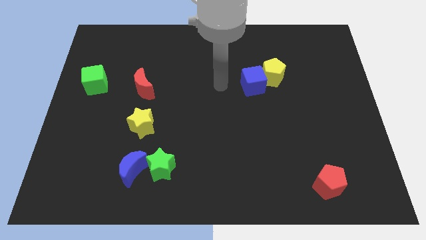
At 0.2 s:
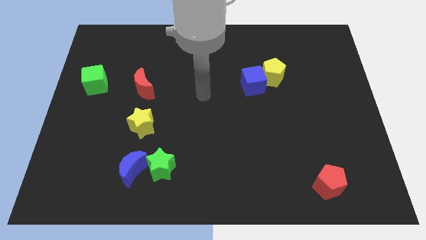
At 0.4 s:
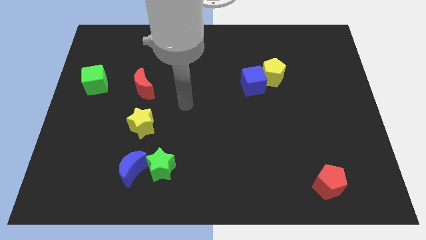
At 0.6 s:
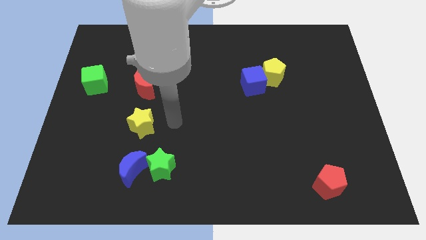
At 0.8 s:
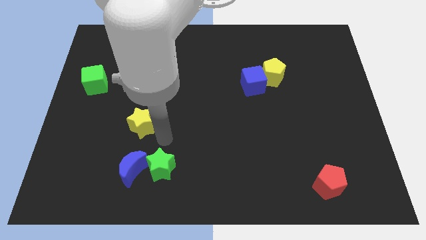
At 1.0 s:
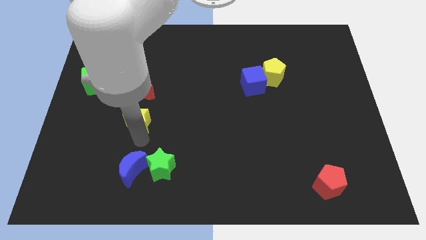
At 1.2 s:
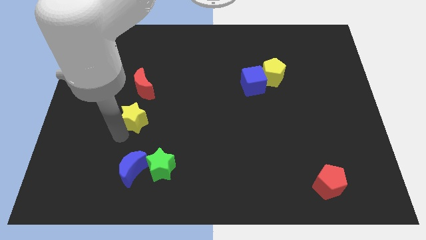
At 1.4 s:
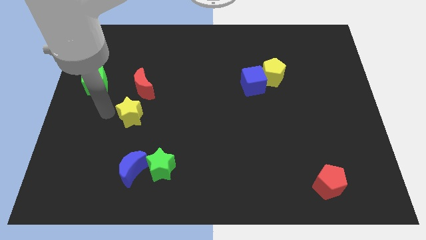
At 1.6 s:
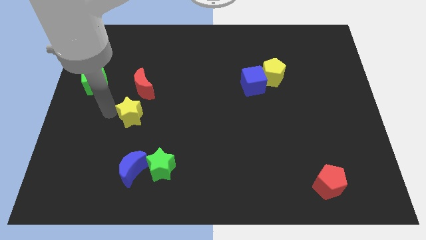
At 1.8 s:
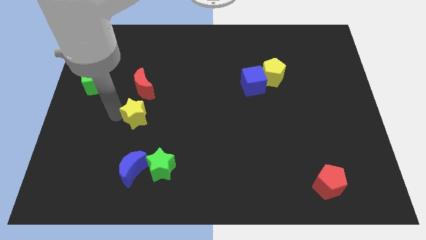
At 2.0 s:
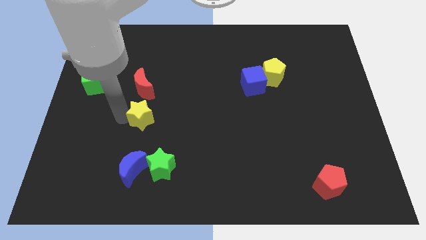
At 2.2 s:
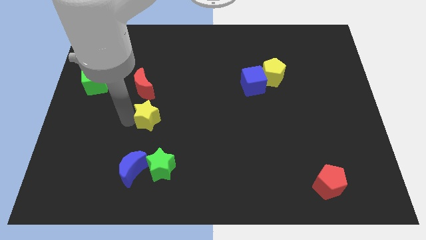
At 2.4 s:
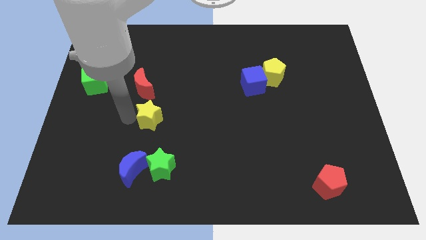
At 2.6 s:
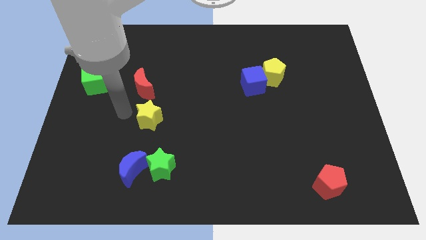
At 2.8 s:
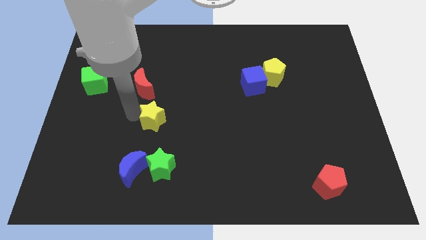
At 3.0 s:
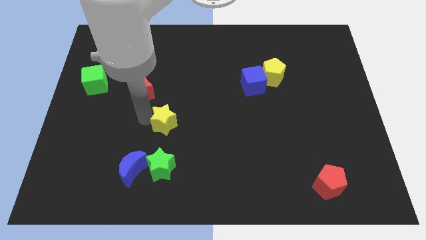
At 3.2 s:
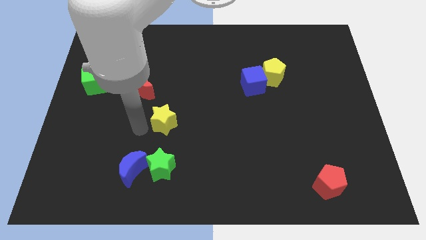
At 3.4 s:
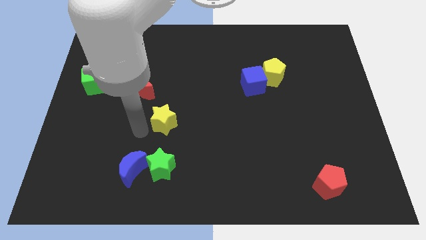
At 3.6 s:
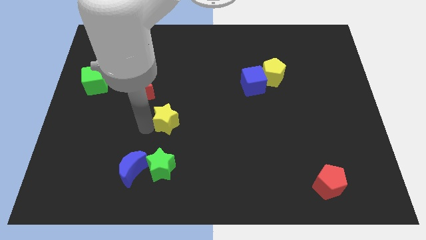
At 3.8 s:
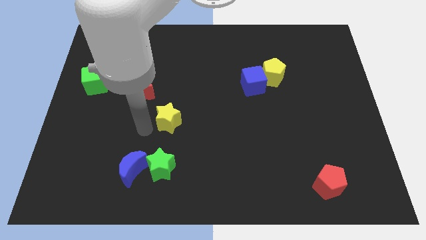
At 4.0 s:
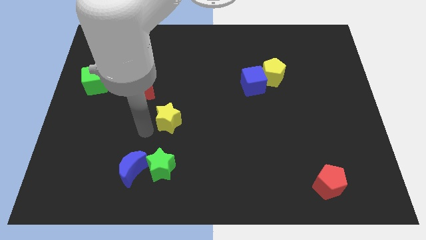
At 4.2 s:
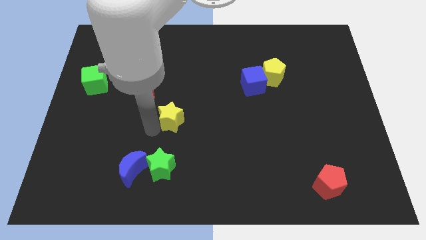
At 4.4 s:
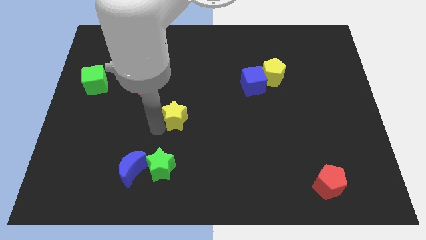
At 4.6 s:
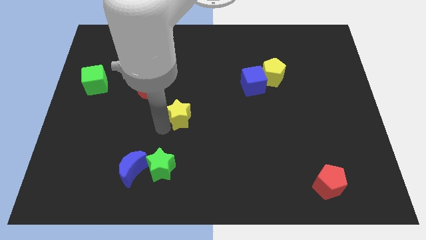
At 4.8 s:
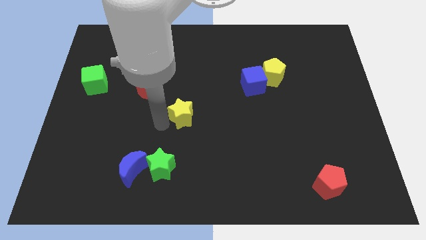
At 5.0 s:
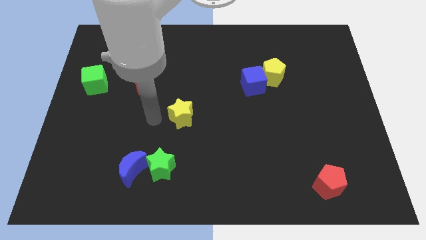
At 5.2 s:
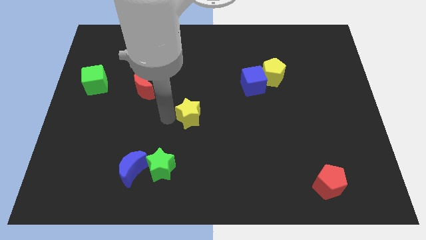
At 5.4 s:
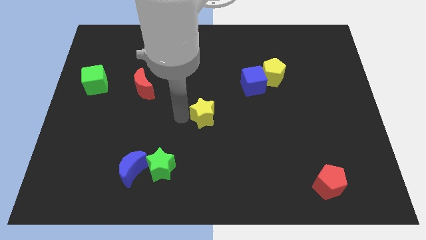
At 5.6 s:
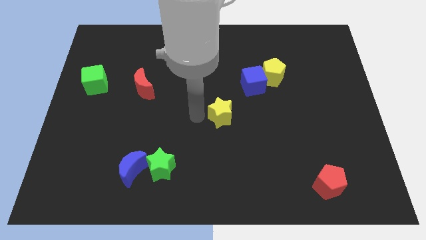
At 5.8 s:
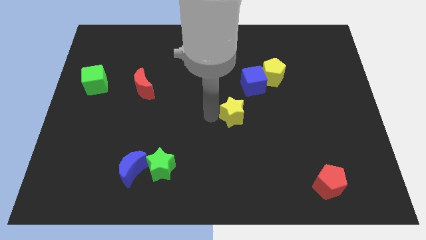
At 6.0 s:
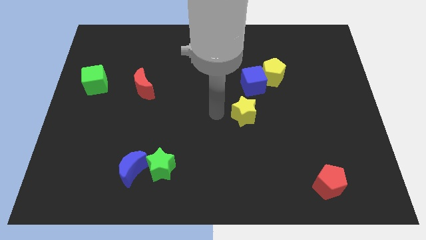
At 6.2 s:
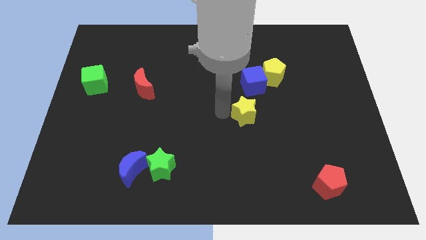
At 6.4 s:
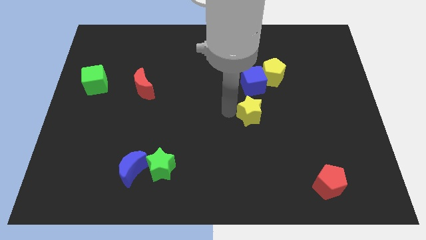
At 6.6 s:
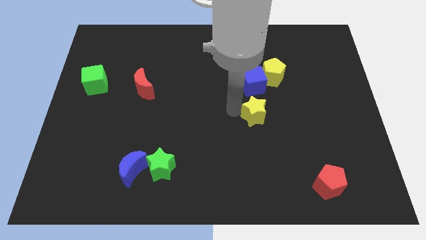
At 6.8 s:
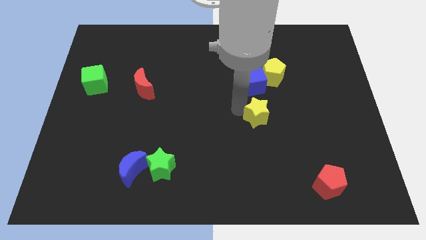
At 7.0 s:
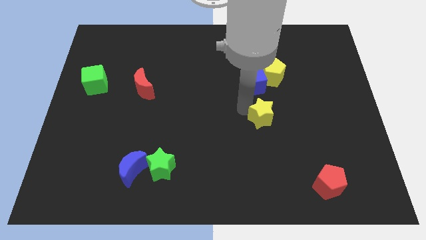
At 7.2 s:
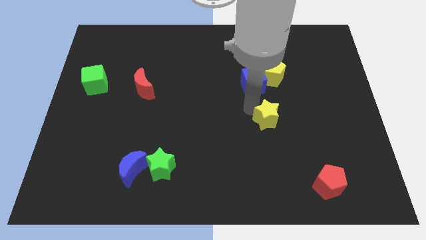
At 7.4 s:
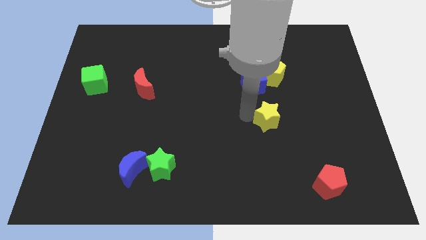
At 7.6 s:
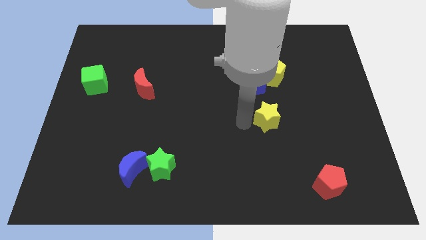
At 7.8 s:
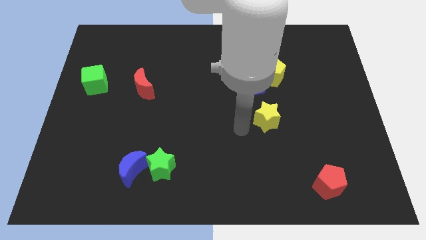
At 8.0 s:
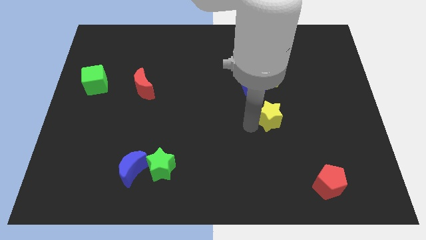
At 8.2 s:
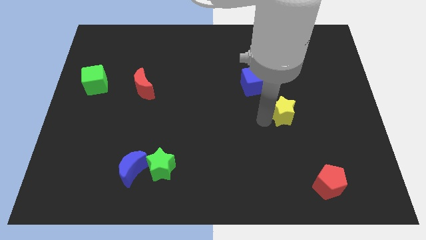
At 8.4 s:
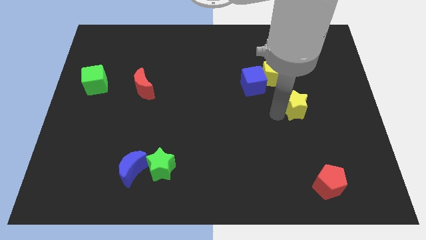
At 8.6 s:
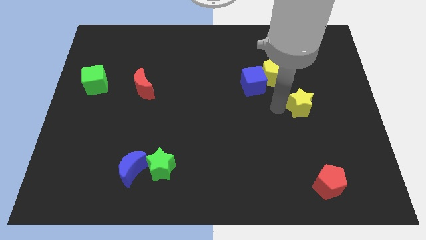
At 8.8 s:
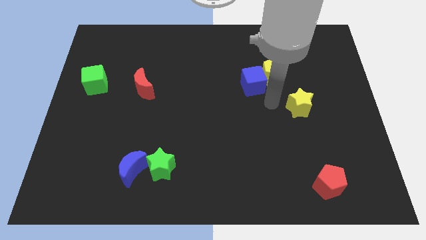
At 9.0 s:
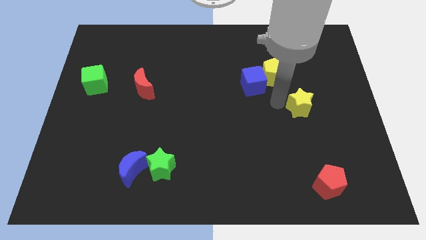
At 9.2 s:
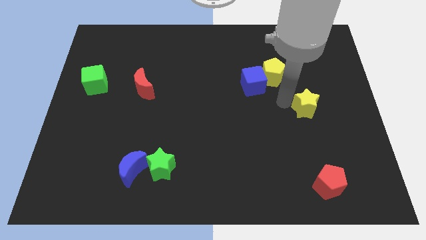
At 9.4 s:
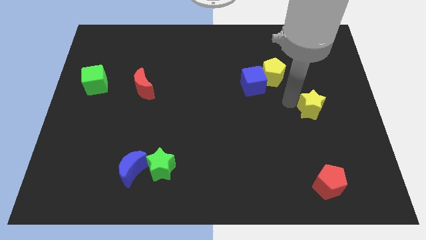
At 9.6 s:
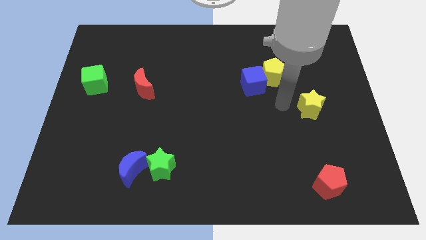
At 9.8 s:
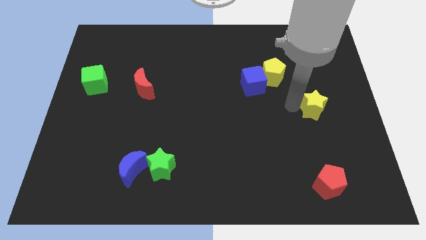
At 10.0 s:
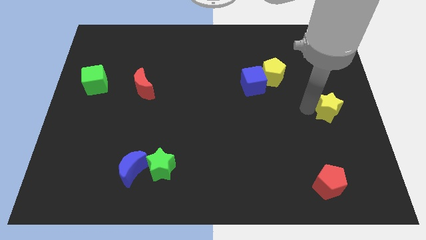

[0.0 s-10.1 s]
push the yellow star to the right side

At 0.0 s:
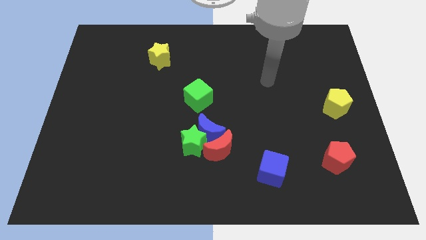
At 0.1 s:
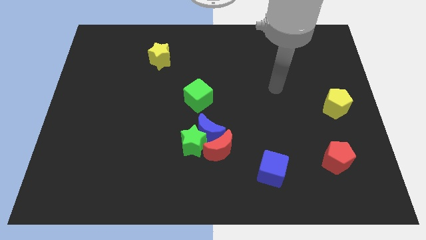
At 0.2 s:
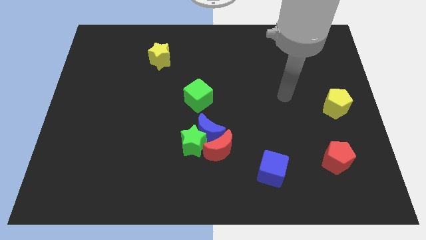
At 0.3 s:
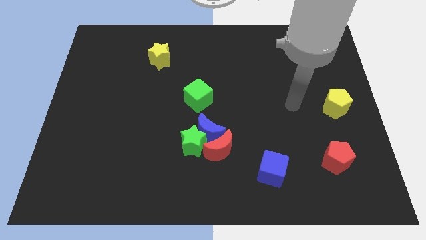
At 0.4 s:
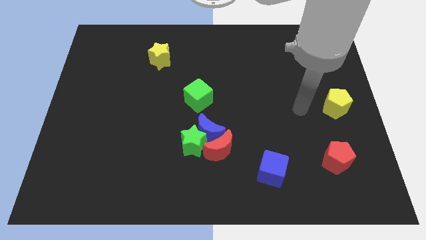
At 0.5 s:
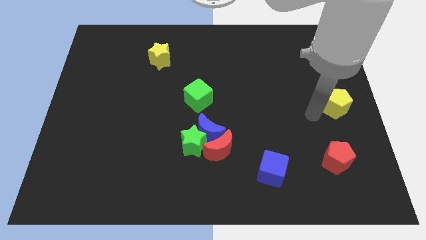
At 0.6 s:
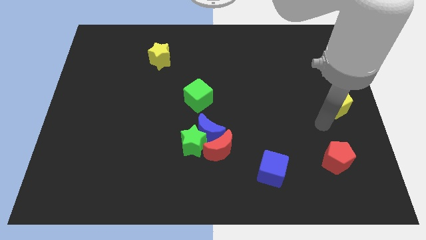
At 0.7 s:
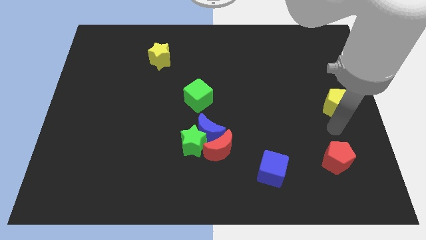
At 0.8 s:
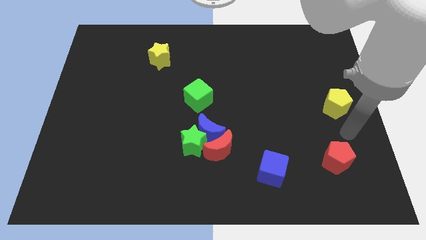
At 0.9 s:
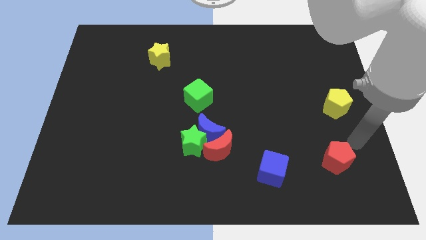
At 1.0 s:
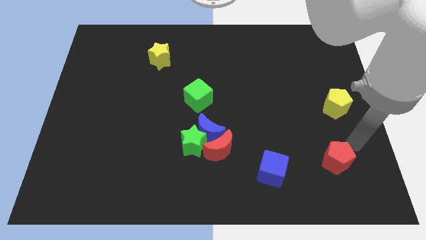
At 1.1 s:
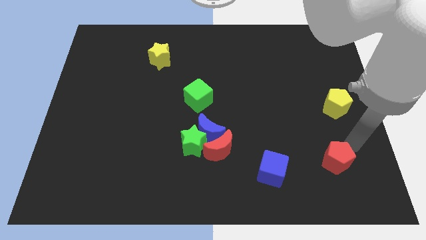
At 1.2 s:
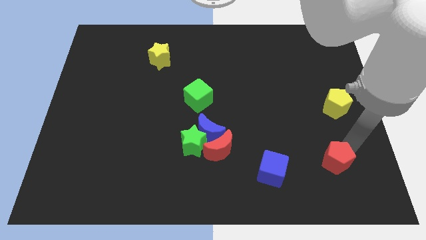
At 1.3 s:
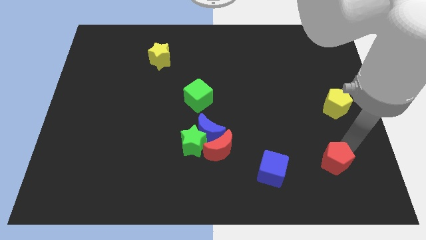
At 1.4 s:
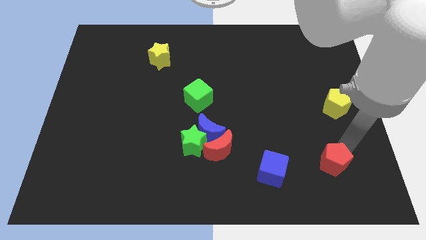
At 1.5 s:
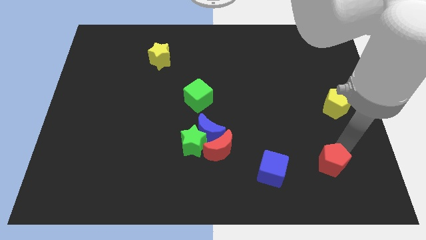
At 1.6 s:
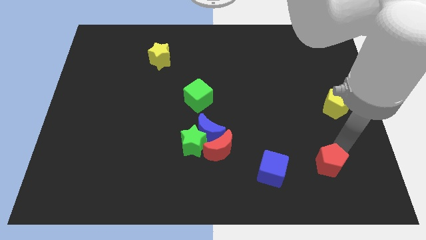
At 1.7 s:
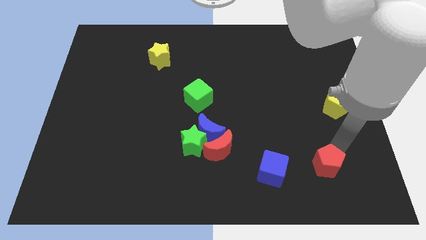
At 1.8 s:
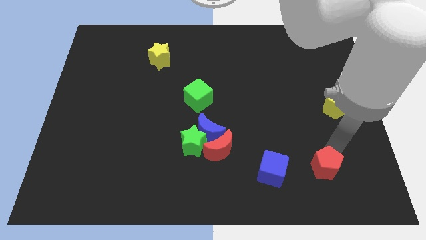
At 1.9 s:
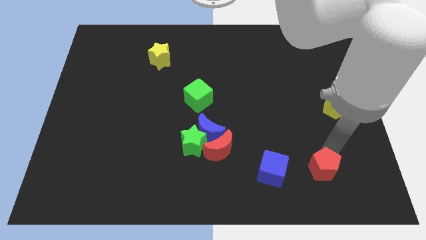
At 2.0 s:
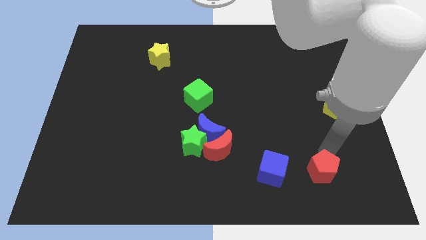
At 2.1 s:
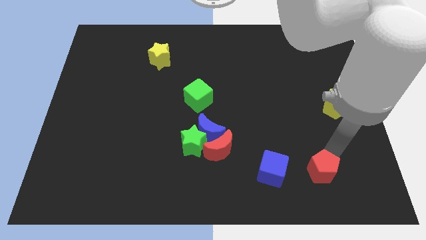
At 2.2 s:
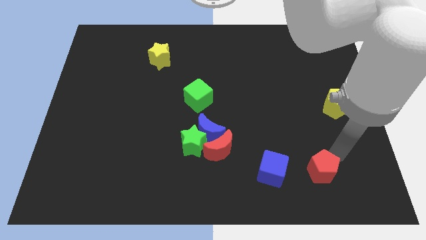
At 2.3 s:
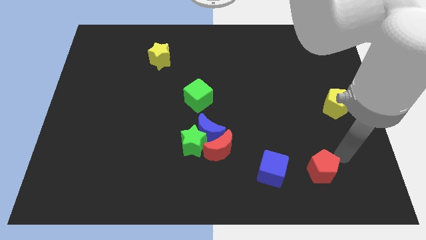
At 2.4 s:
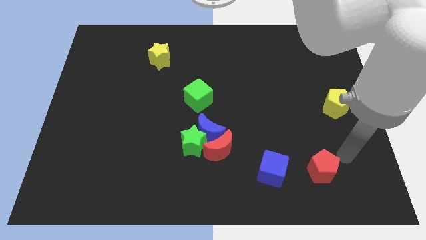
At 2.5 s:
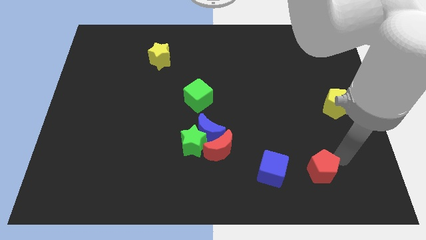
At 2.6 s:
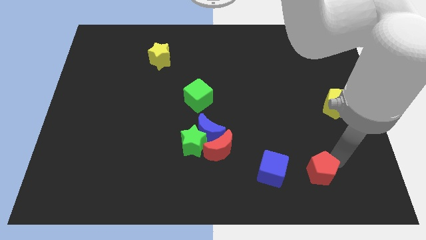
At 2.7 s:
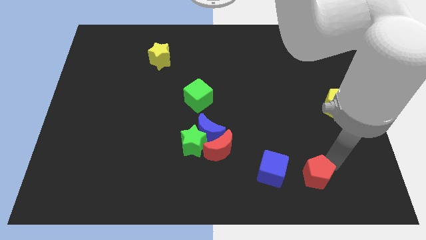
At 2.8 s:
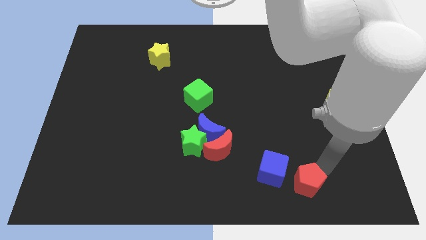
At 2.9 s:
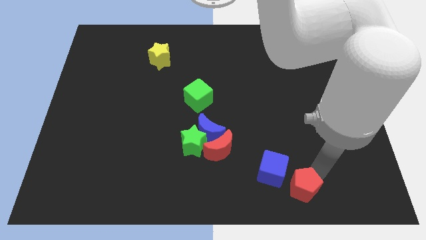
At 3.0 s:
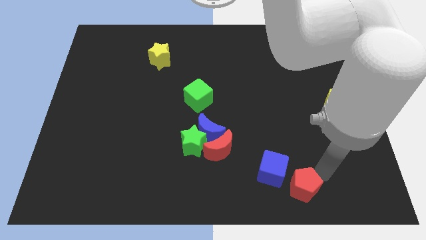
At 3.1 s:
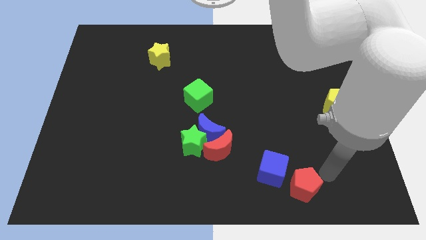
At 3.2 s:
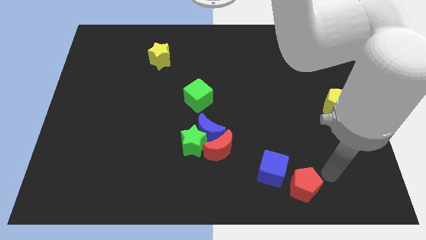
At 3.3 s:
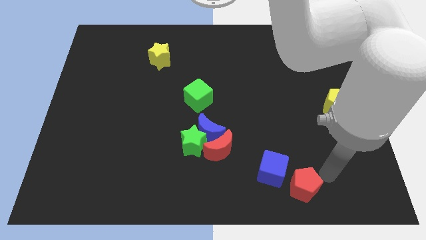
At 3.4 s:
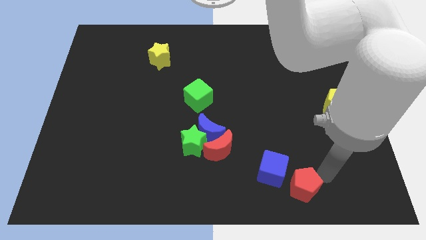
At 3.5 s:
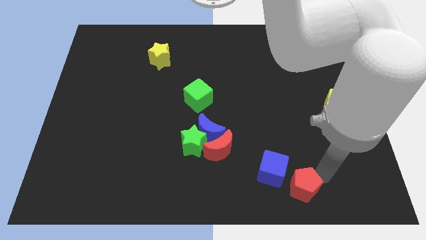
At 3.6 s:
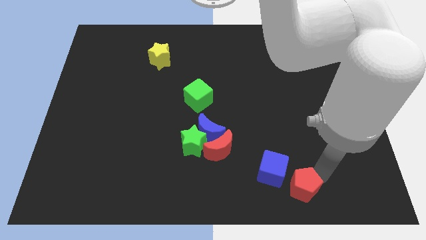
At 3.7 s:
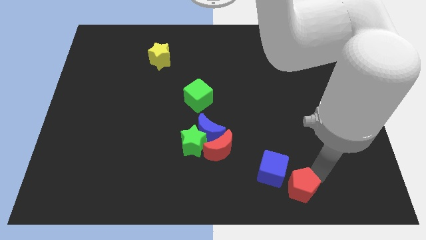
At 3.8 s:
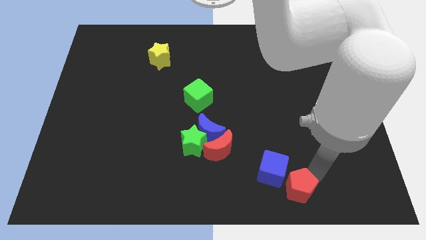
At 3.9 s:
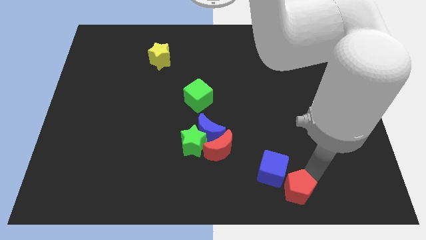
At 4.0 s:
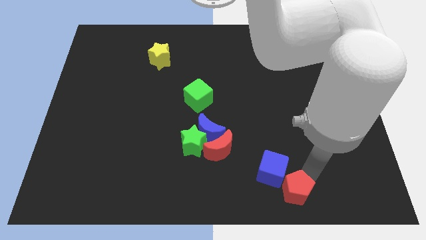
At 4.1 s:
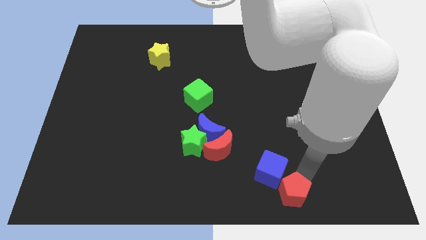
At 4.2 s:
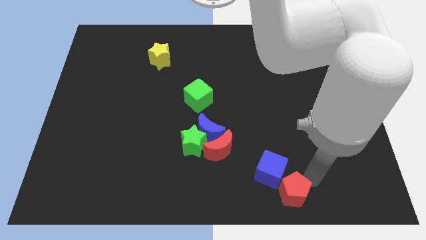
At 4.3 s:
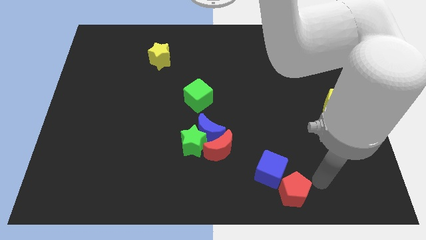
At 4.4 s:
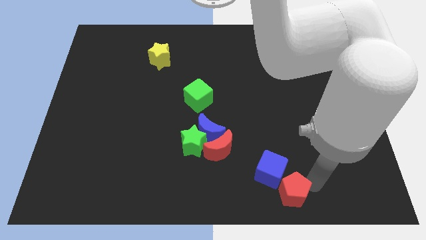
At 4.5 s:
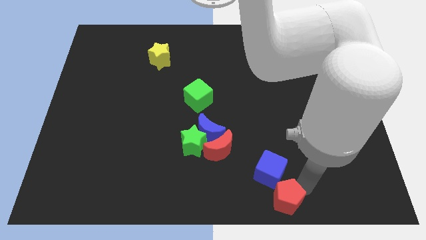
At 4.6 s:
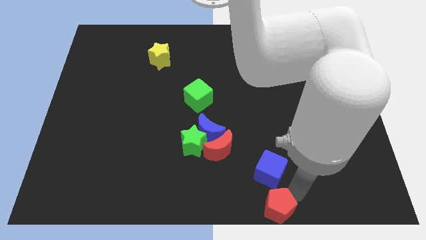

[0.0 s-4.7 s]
move the red pentagon to the bottom
